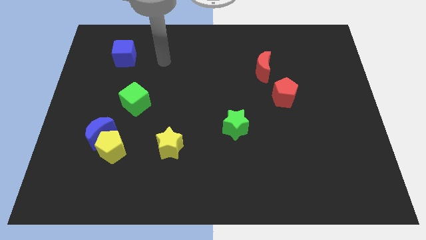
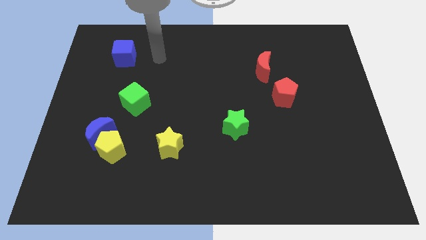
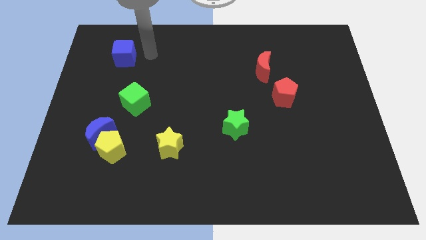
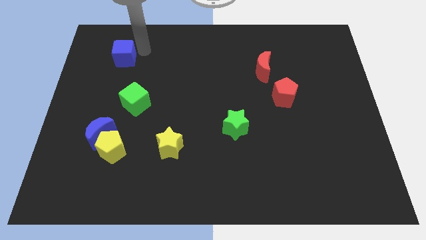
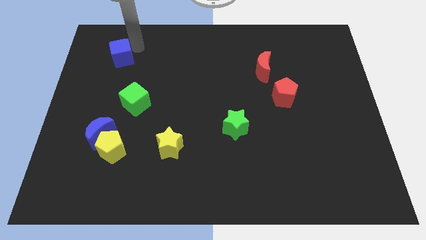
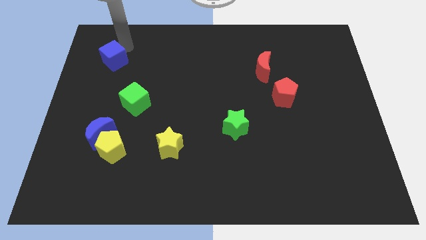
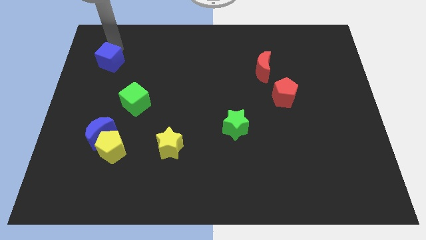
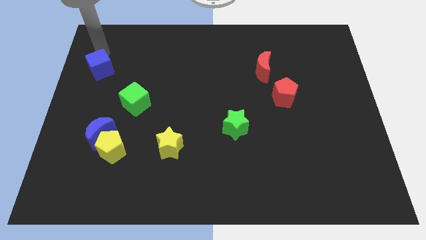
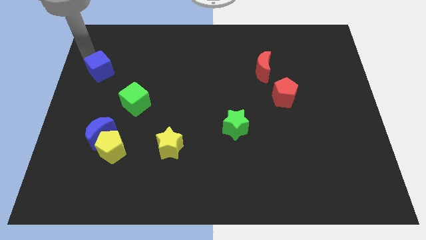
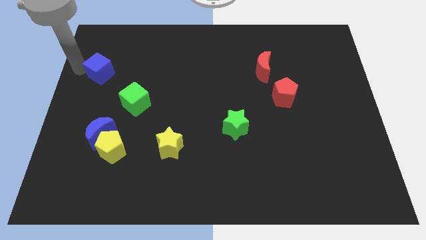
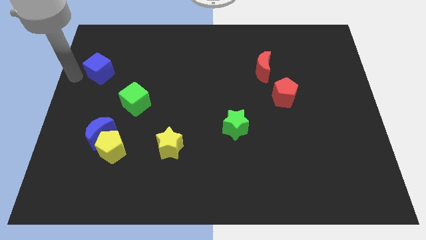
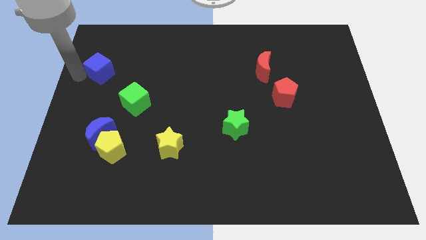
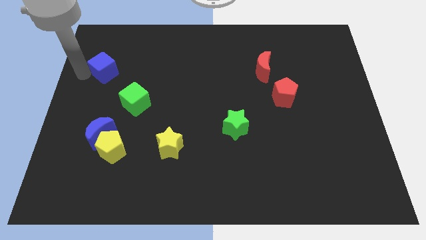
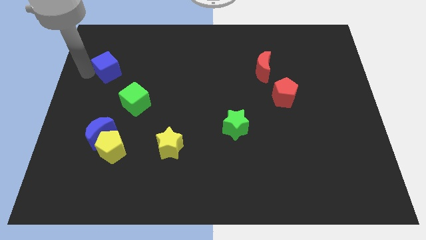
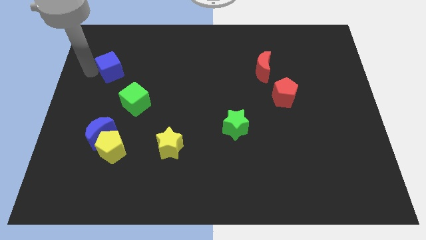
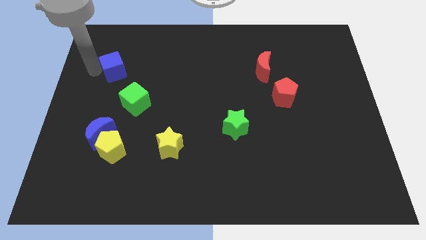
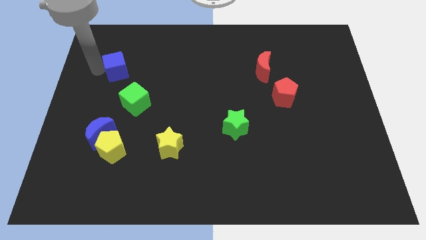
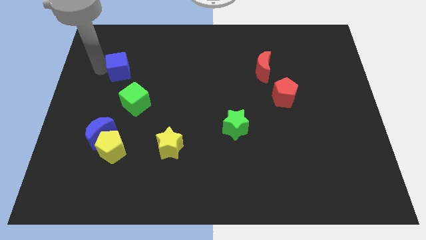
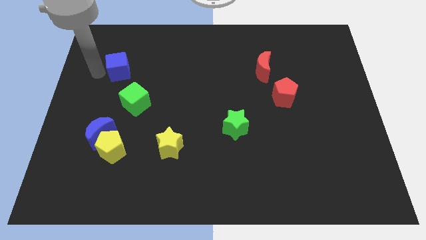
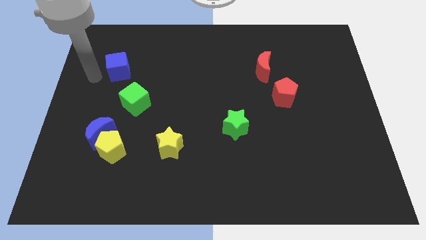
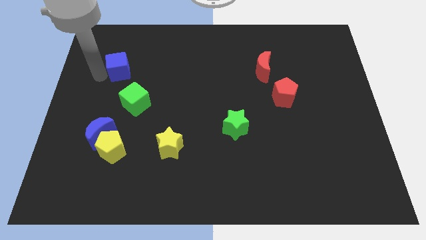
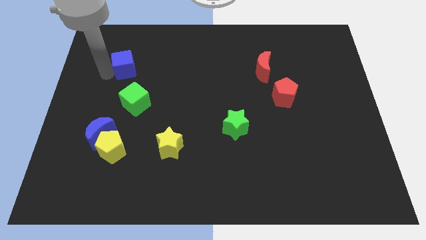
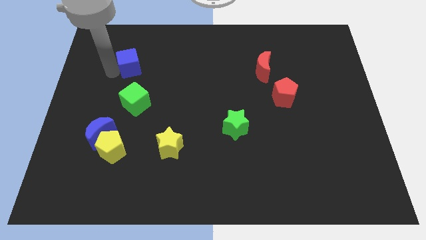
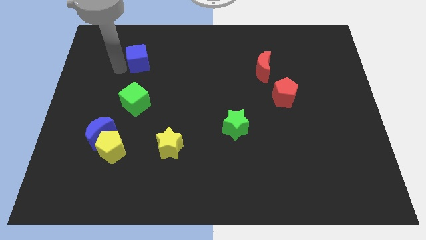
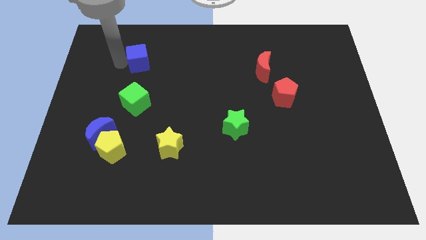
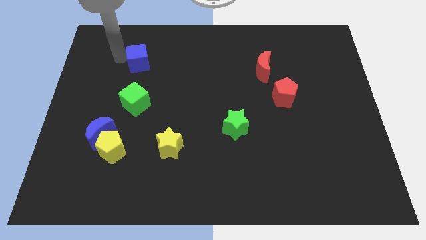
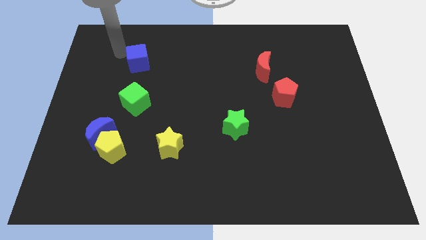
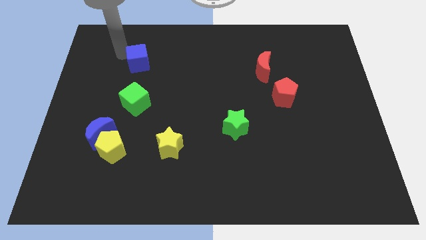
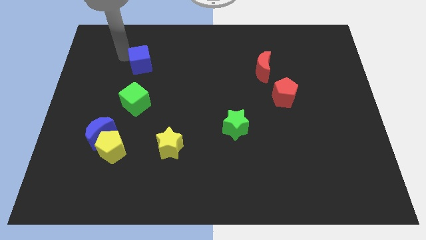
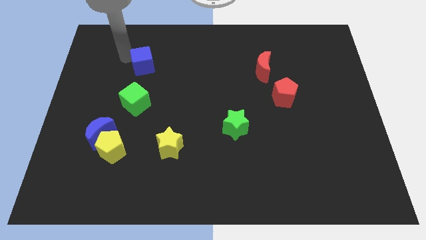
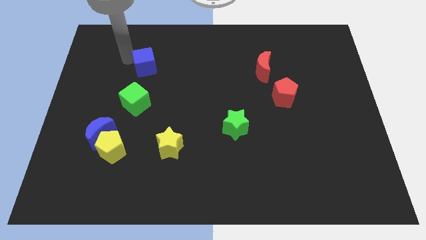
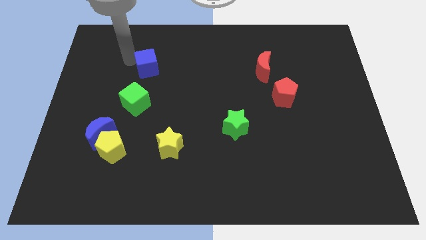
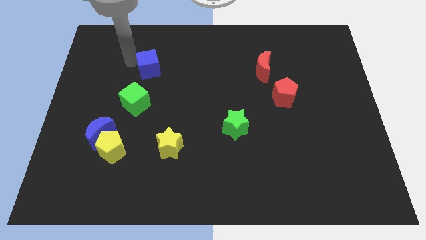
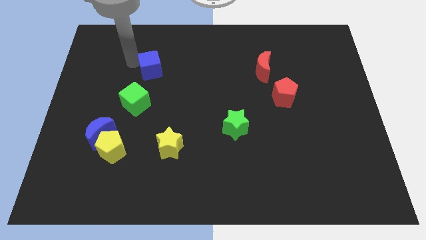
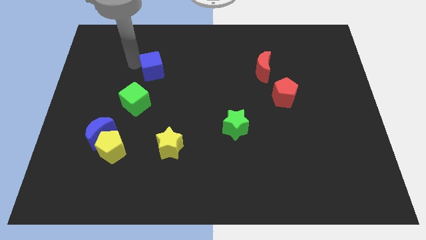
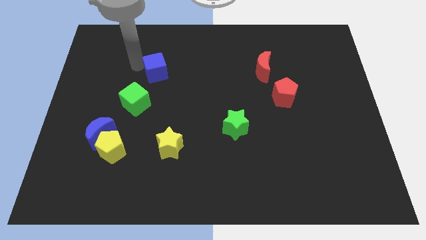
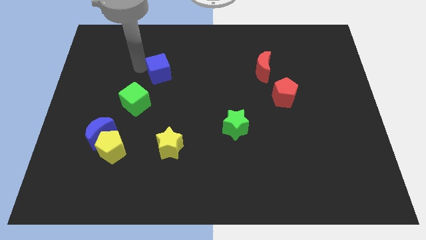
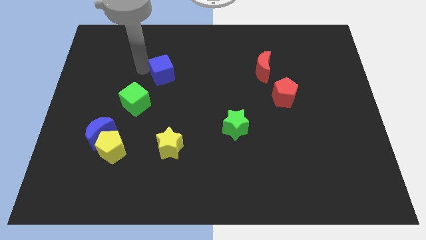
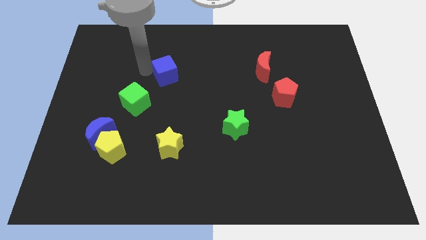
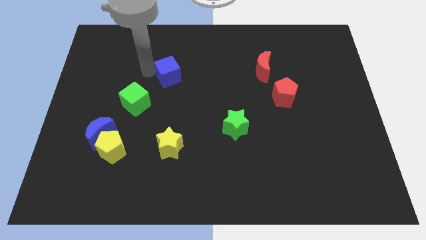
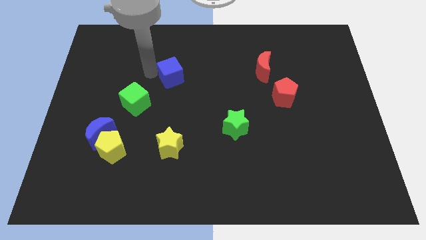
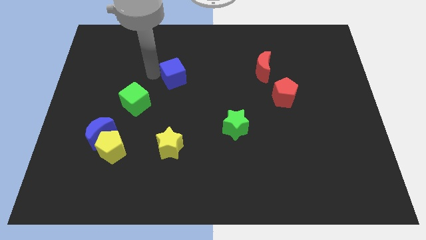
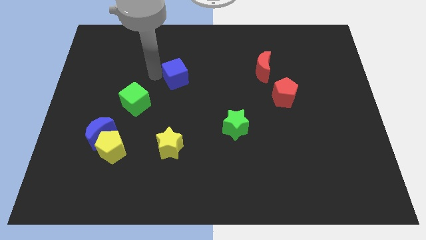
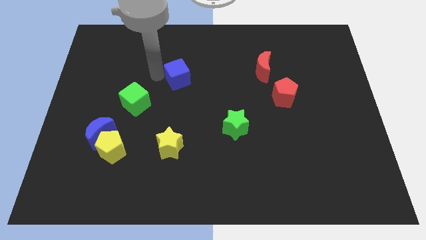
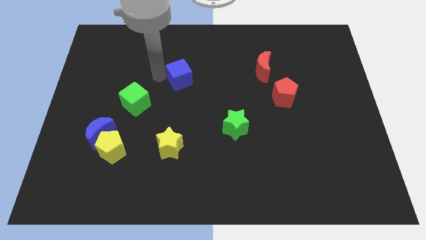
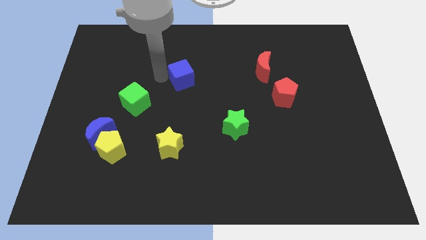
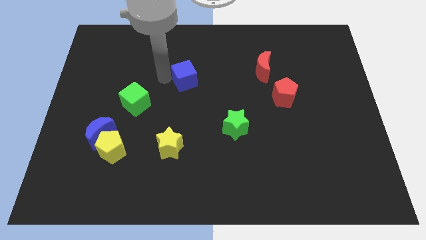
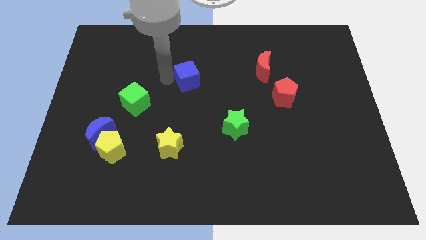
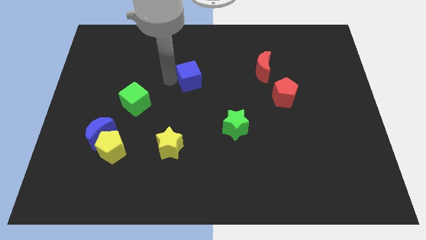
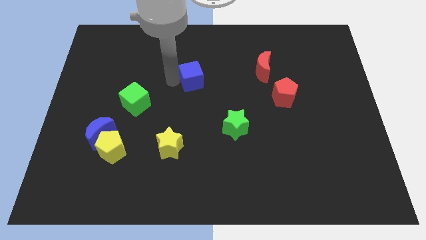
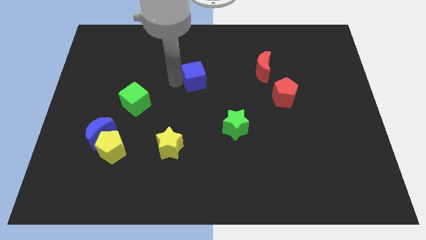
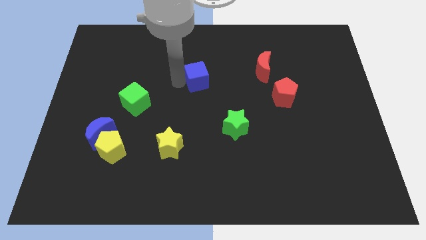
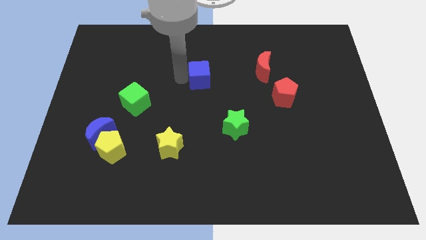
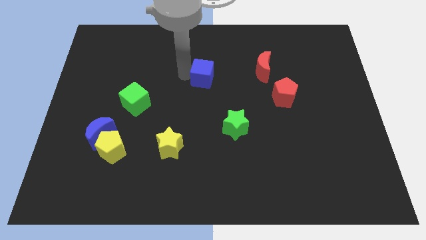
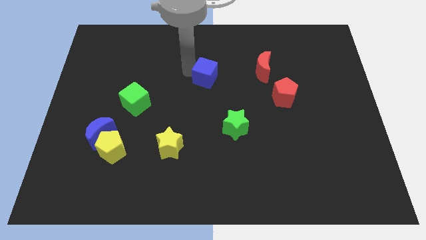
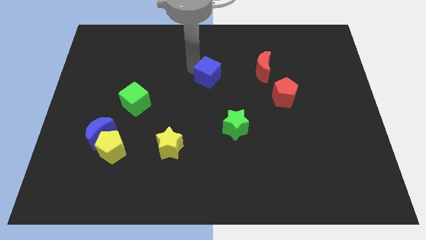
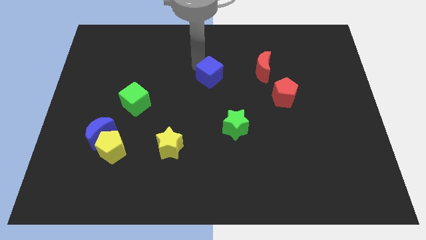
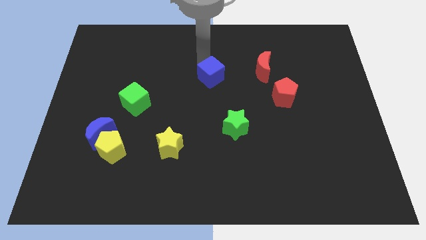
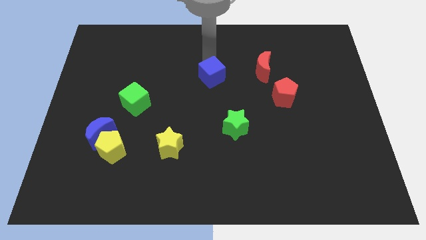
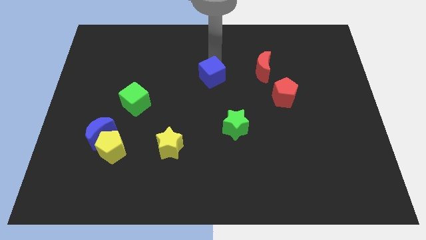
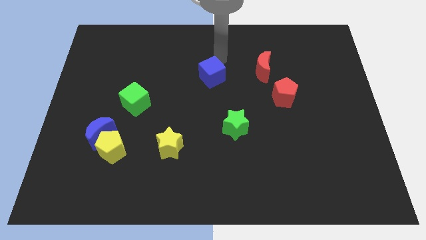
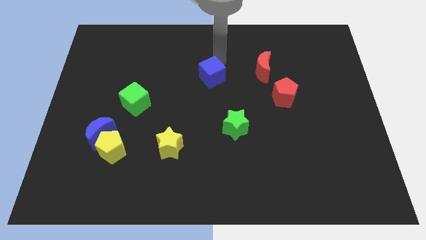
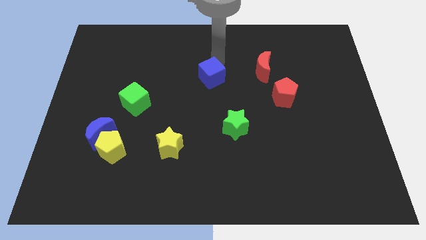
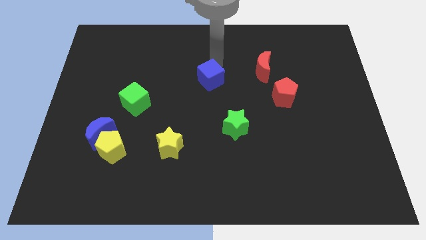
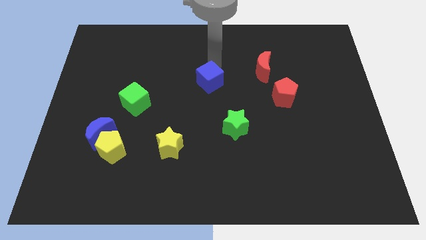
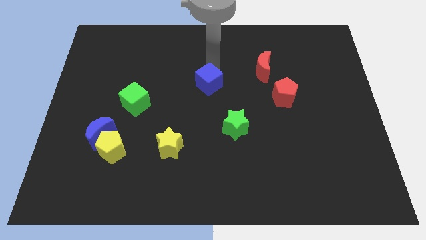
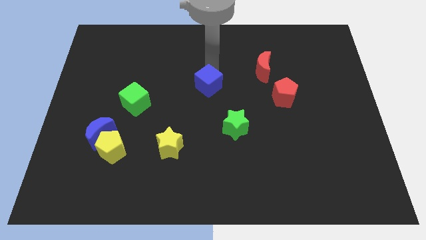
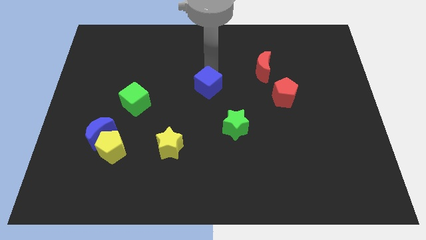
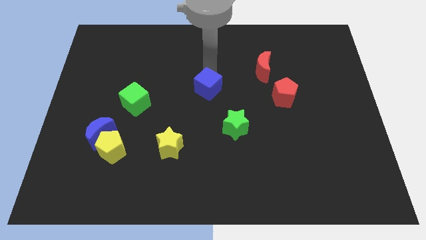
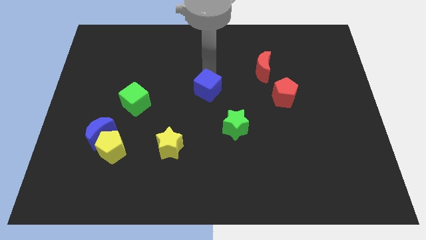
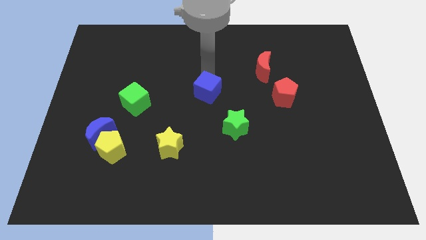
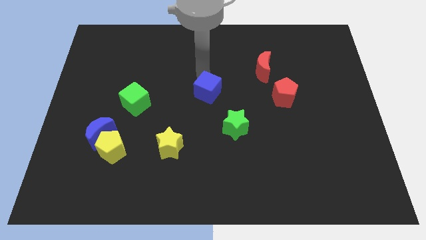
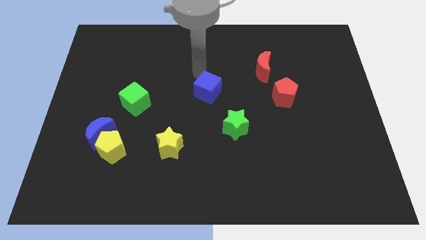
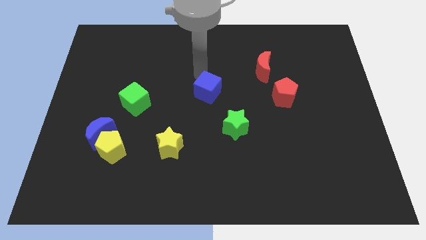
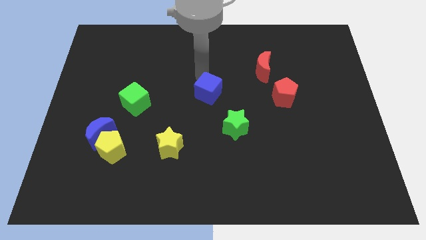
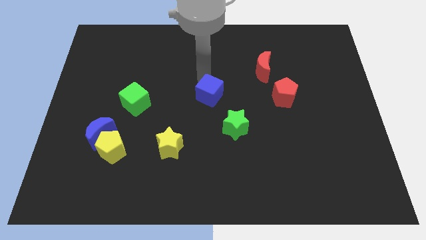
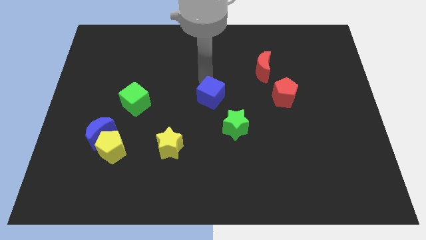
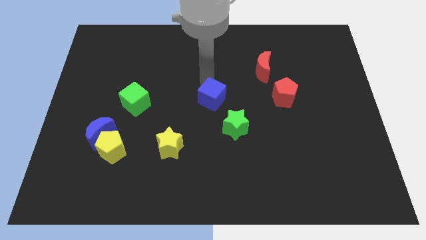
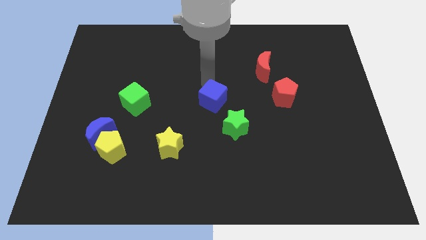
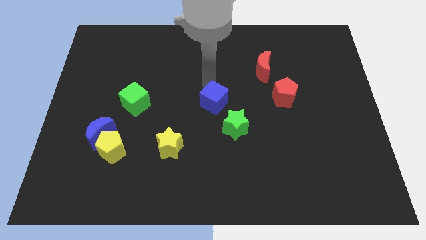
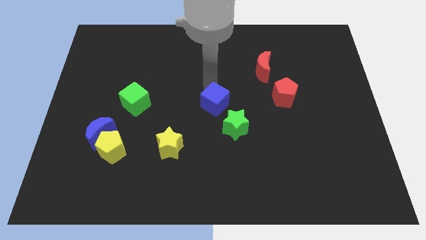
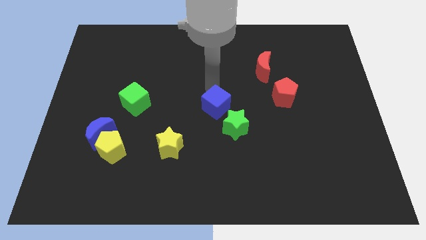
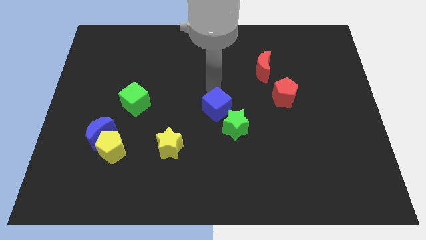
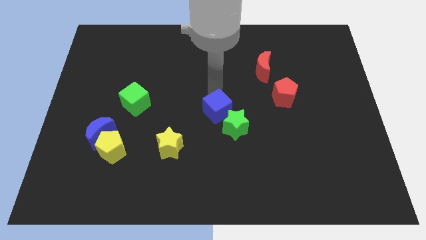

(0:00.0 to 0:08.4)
push the blue cube next to the green star
